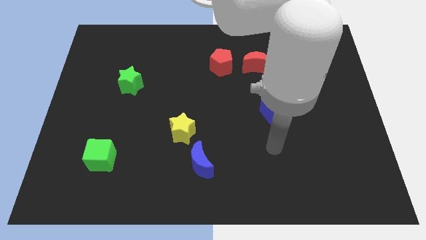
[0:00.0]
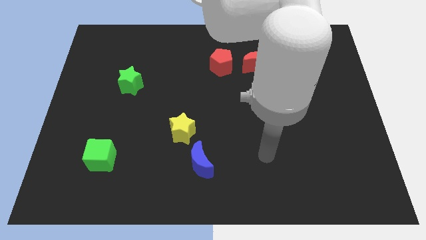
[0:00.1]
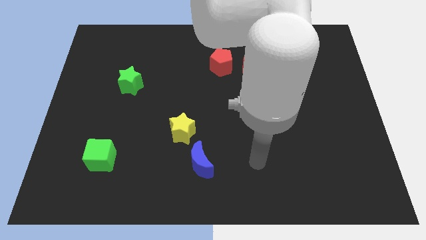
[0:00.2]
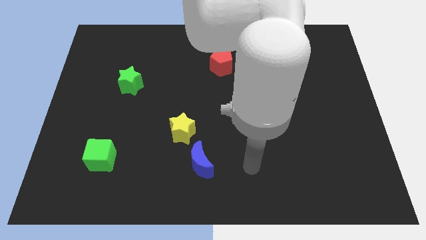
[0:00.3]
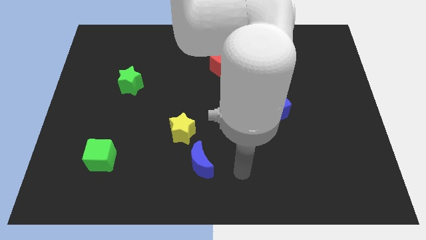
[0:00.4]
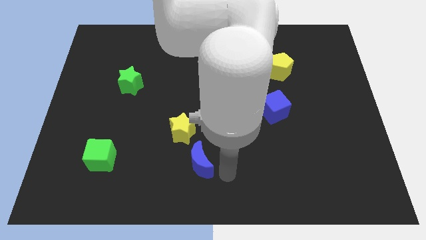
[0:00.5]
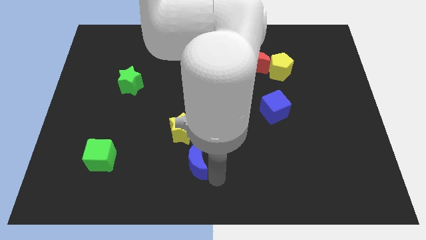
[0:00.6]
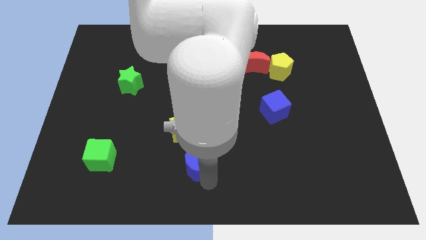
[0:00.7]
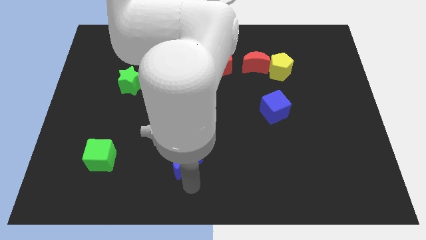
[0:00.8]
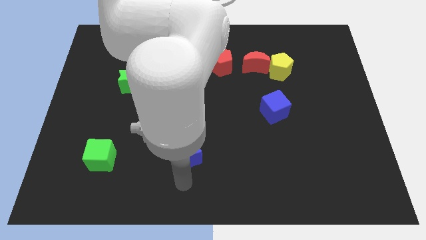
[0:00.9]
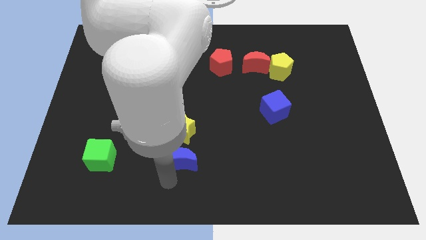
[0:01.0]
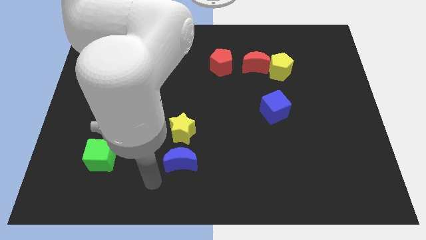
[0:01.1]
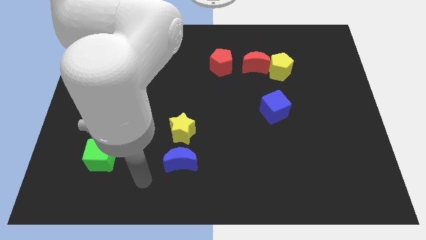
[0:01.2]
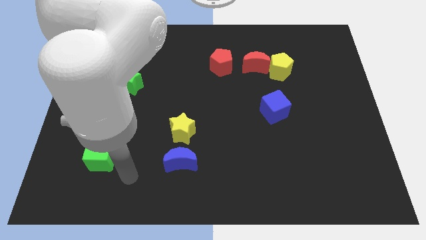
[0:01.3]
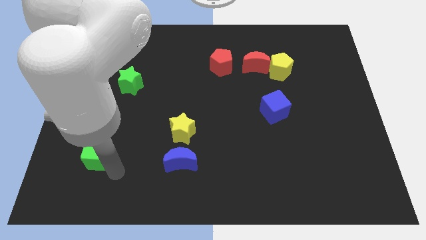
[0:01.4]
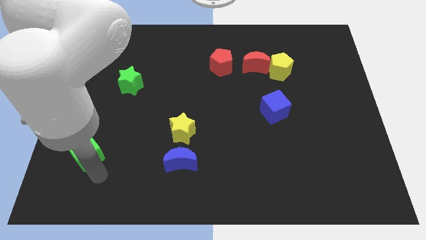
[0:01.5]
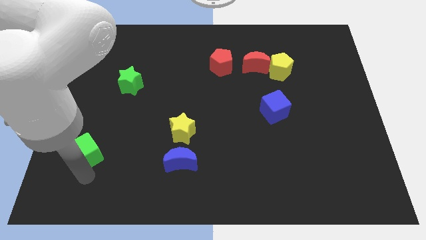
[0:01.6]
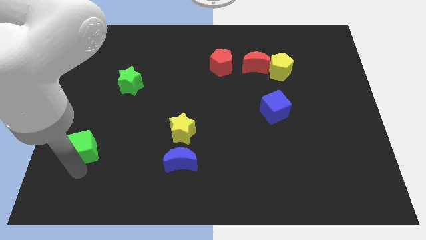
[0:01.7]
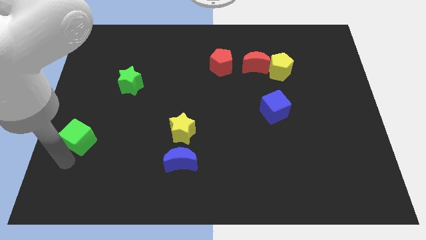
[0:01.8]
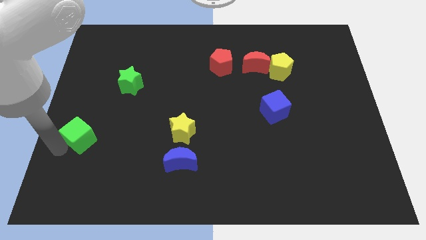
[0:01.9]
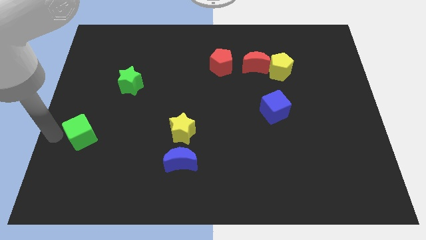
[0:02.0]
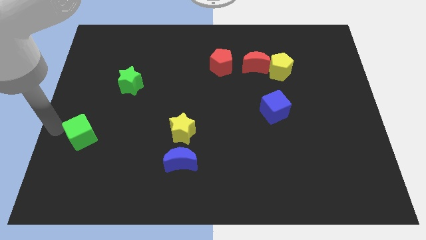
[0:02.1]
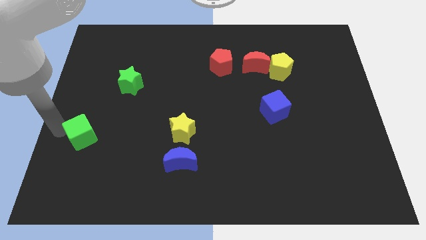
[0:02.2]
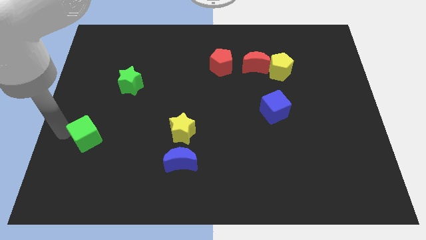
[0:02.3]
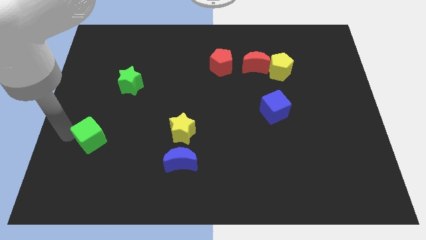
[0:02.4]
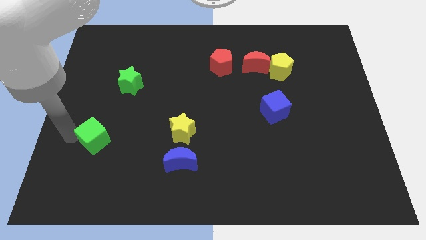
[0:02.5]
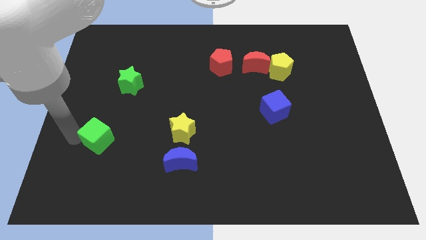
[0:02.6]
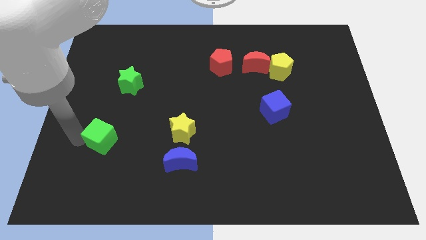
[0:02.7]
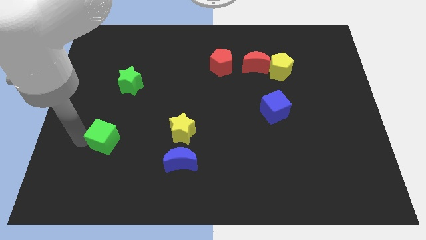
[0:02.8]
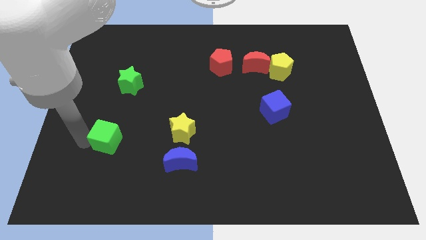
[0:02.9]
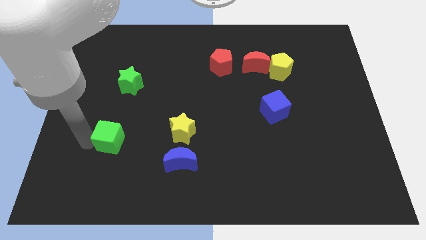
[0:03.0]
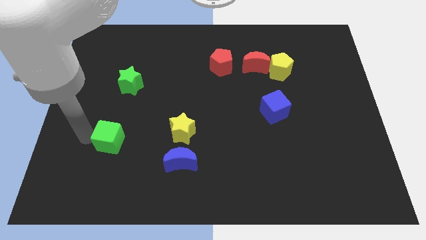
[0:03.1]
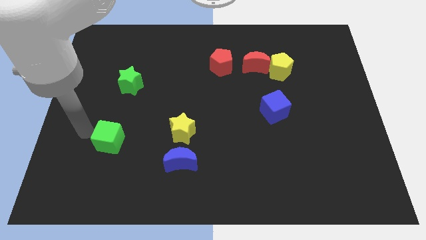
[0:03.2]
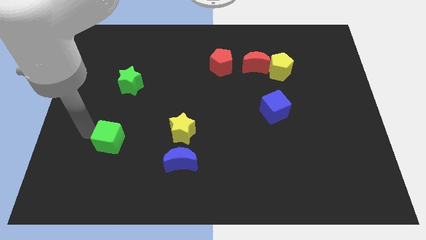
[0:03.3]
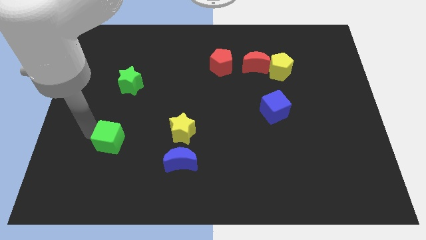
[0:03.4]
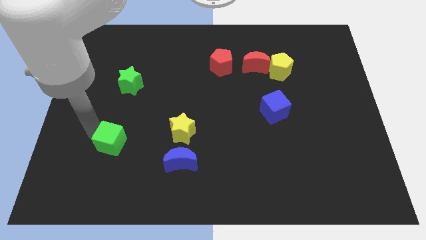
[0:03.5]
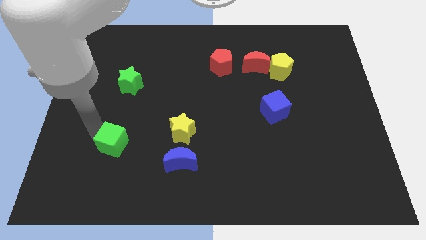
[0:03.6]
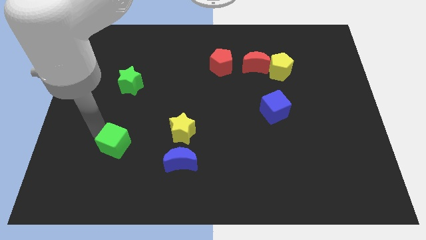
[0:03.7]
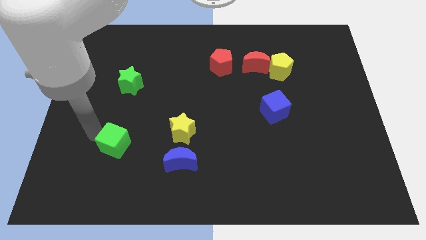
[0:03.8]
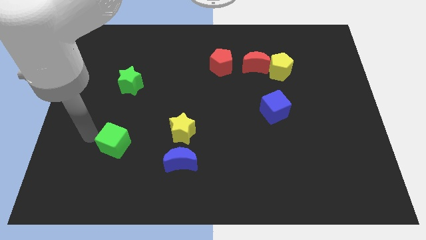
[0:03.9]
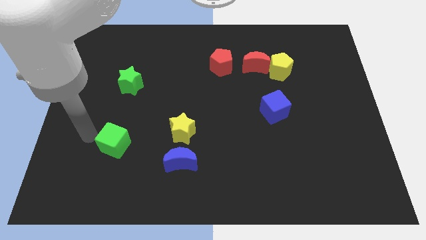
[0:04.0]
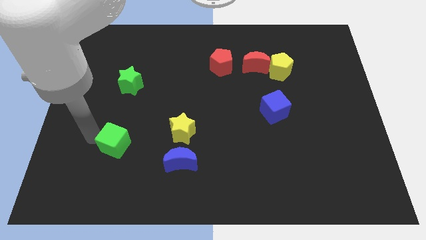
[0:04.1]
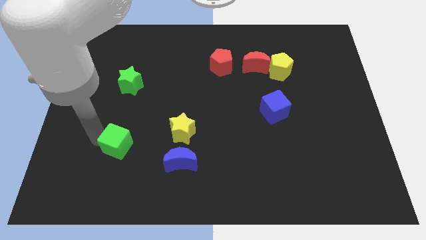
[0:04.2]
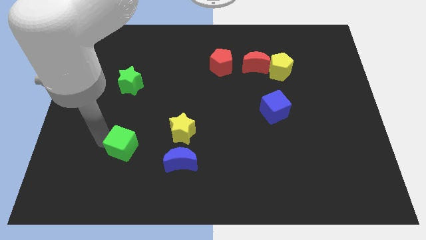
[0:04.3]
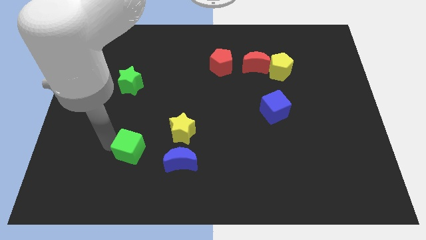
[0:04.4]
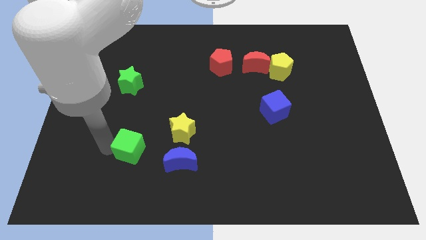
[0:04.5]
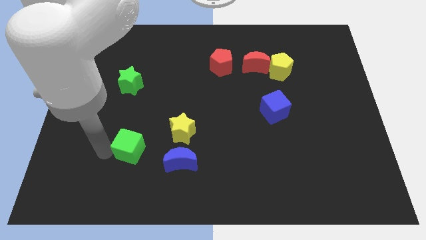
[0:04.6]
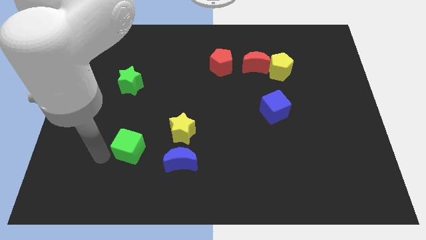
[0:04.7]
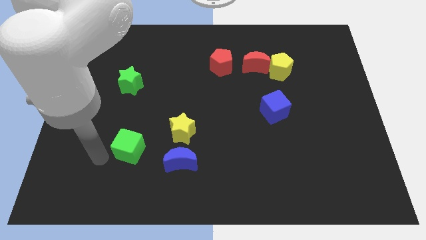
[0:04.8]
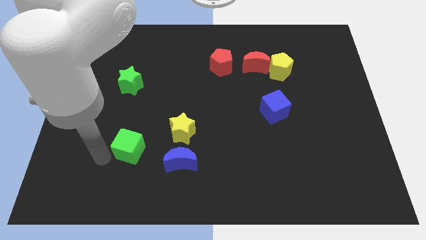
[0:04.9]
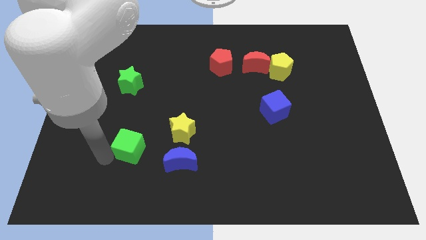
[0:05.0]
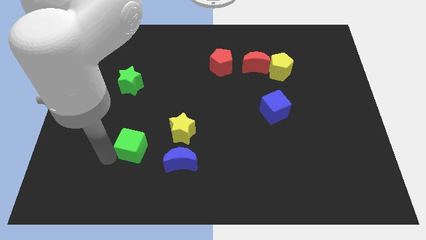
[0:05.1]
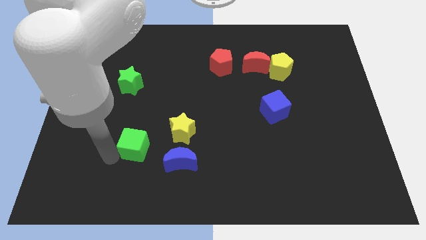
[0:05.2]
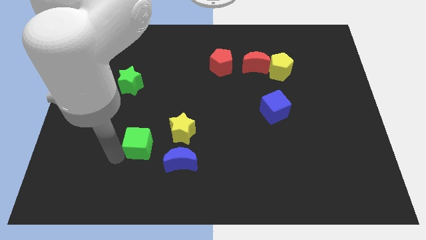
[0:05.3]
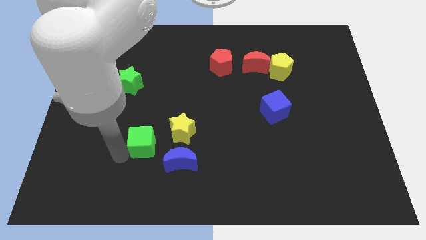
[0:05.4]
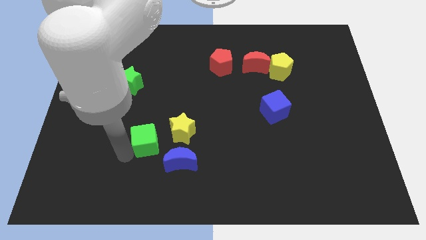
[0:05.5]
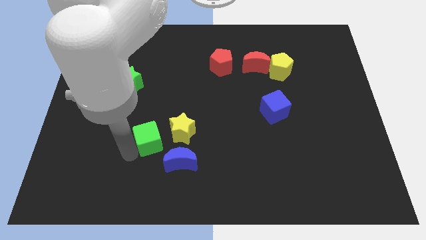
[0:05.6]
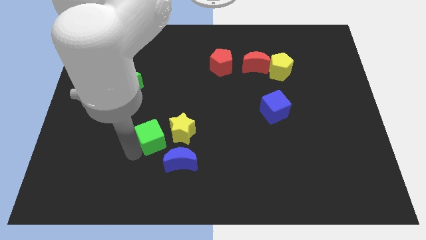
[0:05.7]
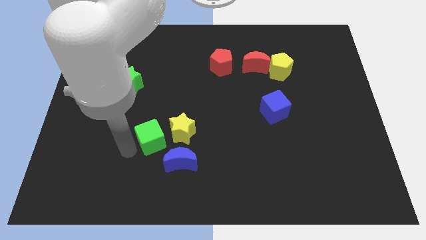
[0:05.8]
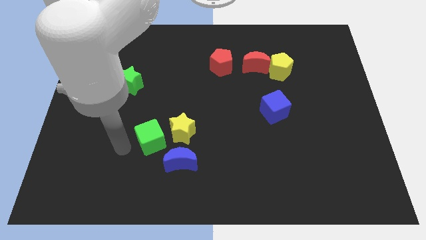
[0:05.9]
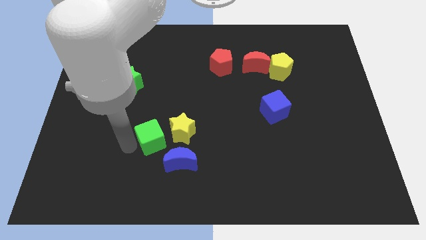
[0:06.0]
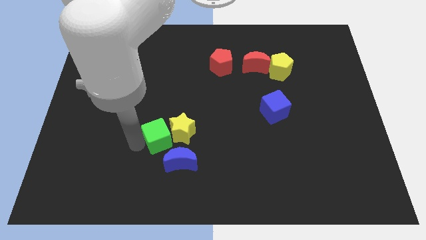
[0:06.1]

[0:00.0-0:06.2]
push the green cube to the yellow star

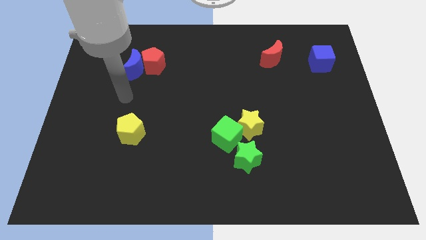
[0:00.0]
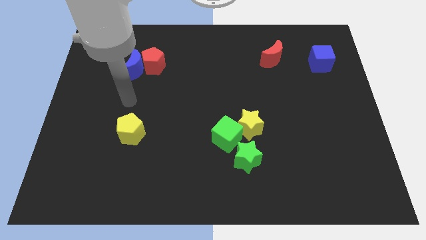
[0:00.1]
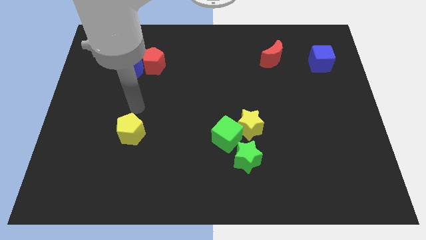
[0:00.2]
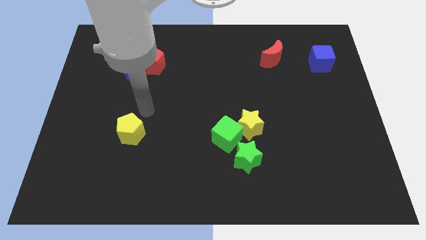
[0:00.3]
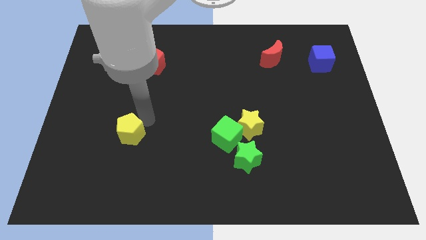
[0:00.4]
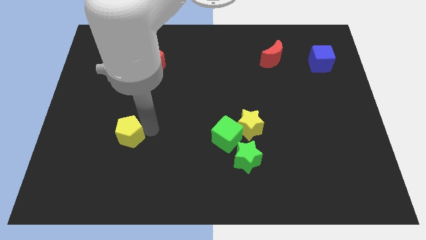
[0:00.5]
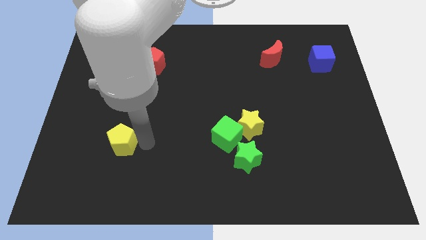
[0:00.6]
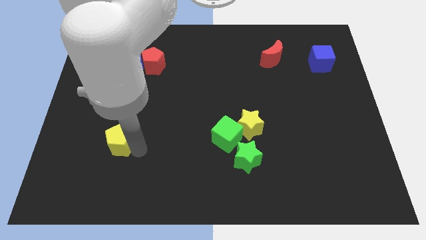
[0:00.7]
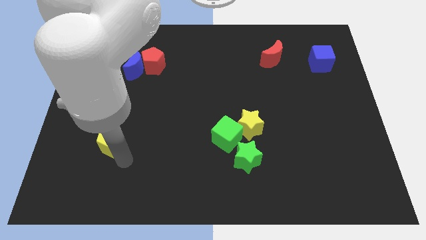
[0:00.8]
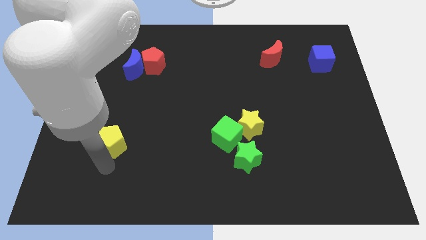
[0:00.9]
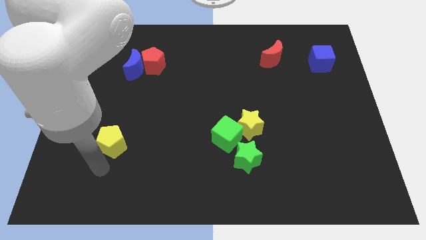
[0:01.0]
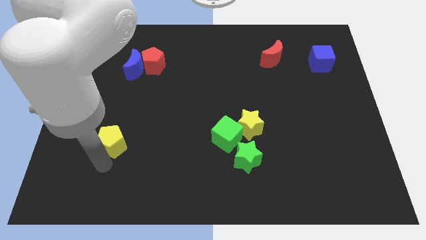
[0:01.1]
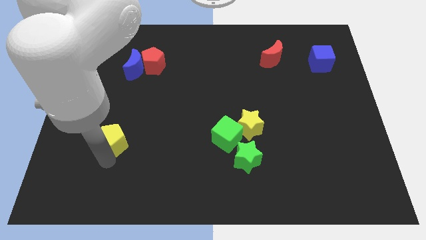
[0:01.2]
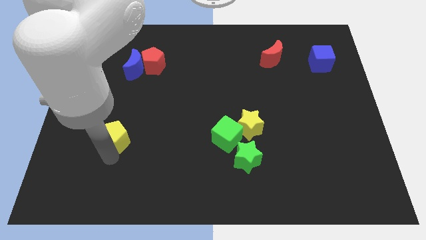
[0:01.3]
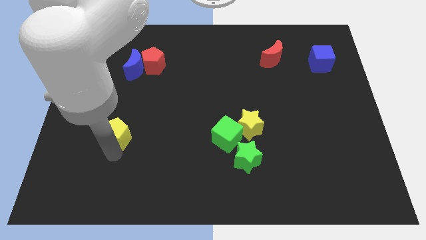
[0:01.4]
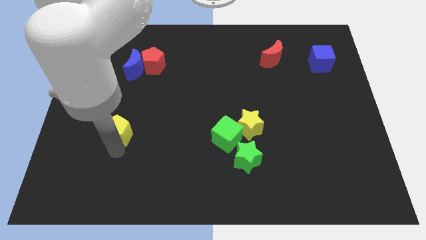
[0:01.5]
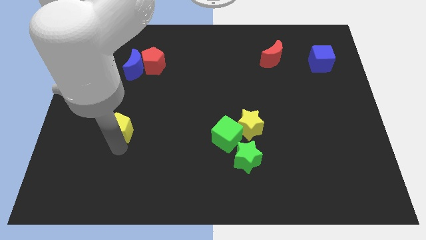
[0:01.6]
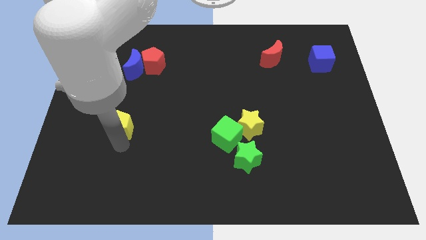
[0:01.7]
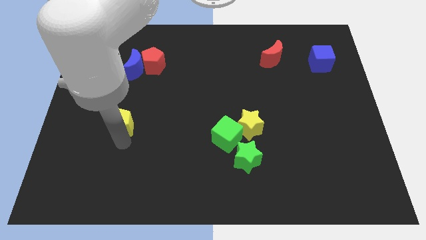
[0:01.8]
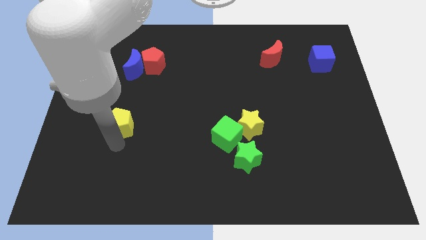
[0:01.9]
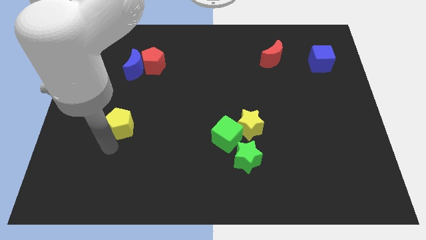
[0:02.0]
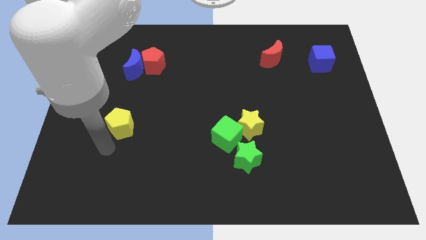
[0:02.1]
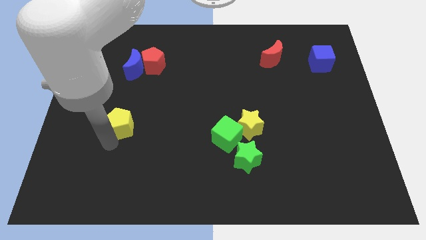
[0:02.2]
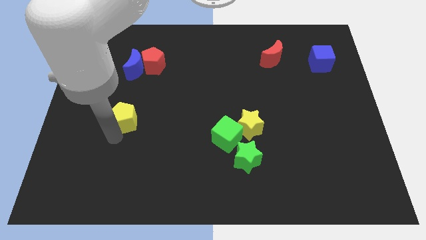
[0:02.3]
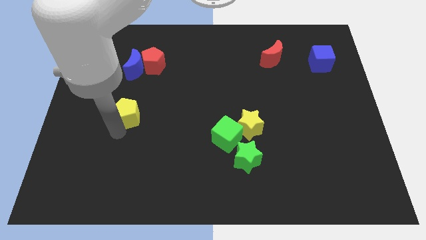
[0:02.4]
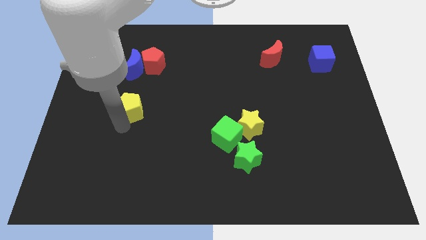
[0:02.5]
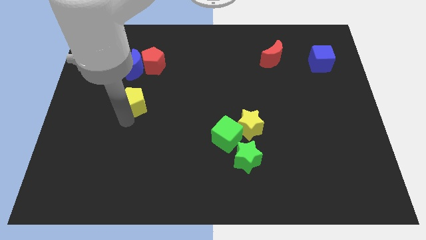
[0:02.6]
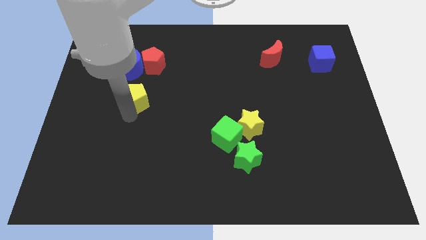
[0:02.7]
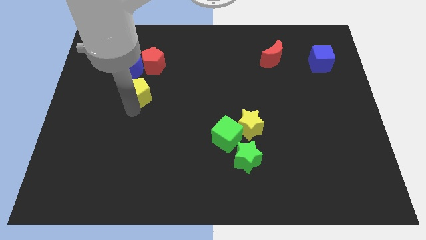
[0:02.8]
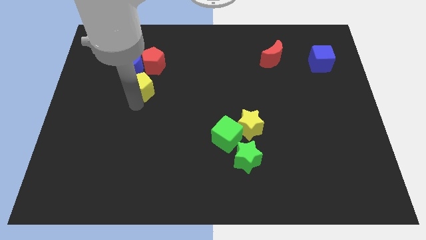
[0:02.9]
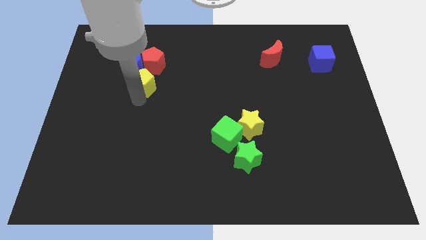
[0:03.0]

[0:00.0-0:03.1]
put the yellow pentagon close to the blue moon
